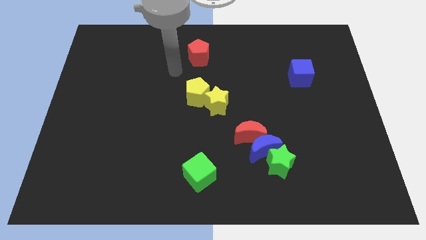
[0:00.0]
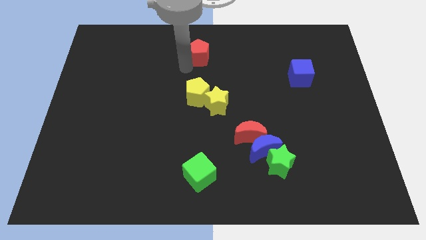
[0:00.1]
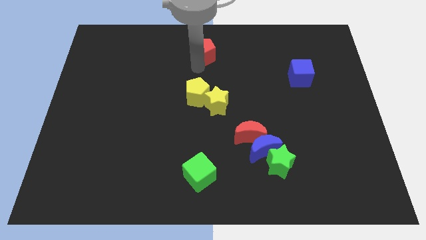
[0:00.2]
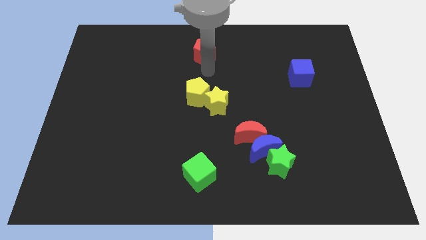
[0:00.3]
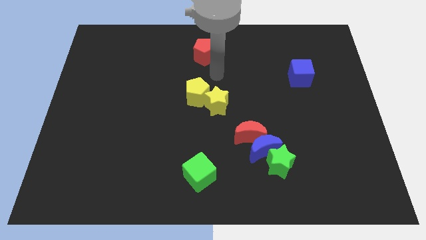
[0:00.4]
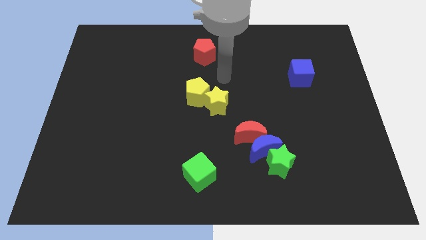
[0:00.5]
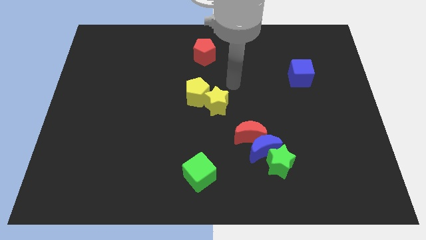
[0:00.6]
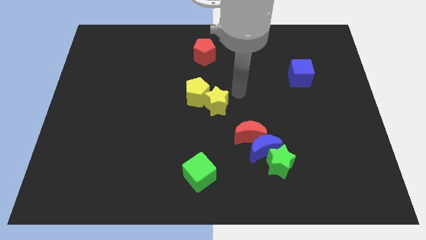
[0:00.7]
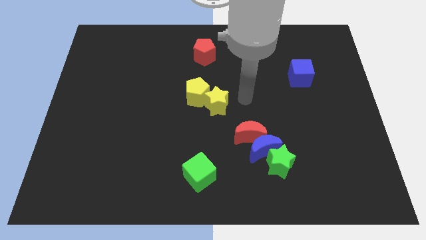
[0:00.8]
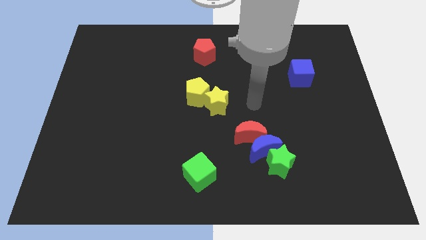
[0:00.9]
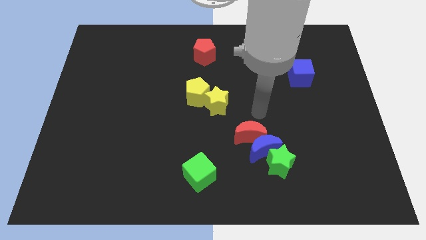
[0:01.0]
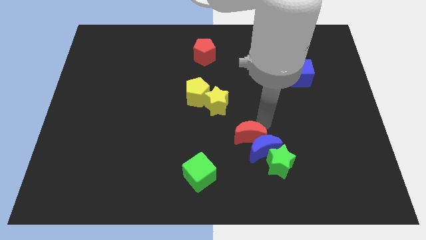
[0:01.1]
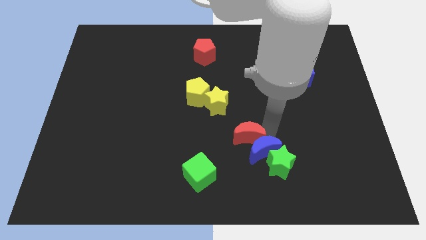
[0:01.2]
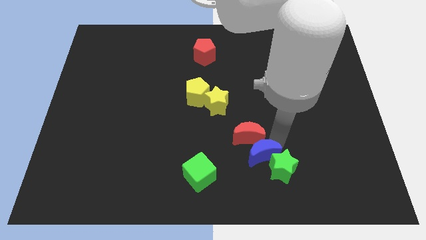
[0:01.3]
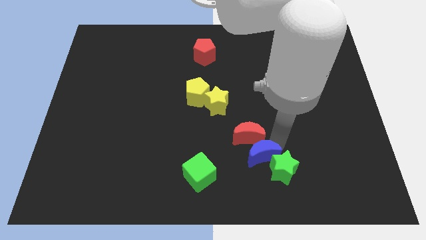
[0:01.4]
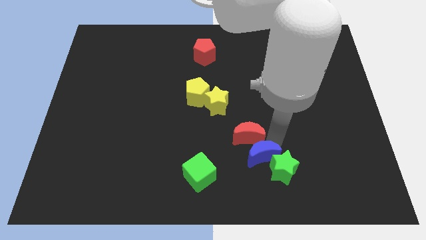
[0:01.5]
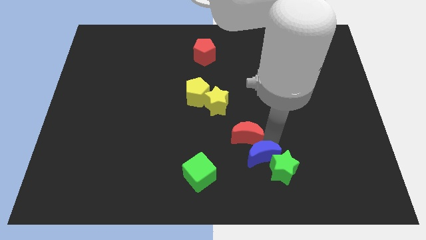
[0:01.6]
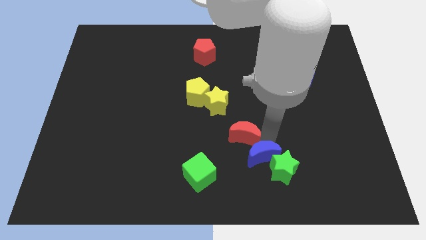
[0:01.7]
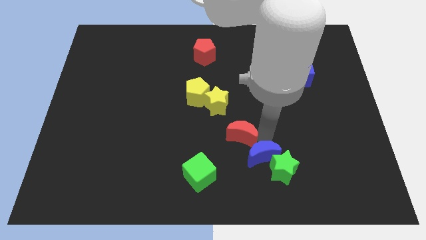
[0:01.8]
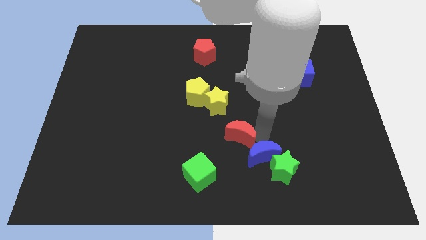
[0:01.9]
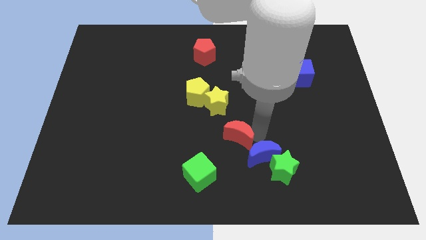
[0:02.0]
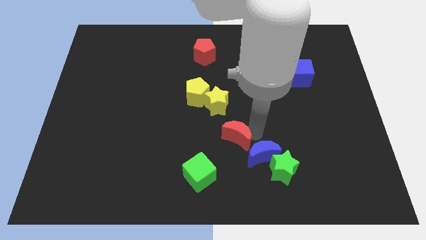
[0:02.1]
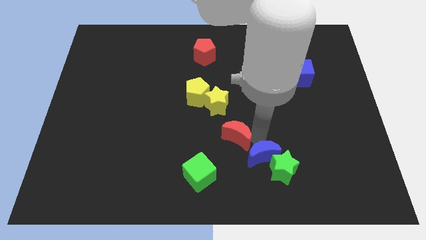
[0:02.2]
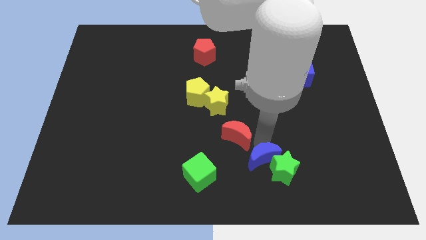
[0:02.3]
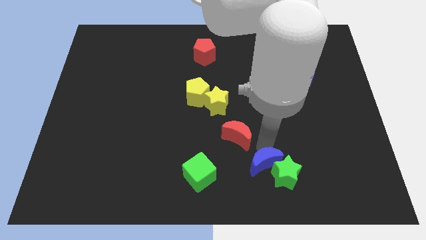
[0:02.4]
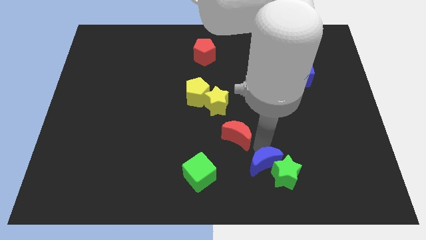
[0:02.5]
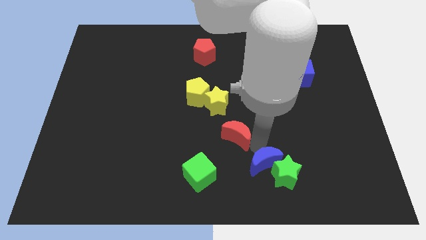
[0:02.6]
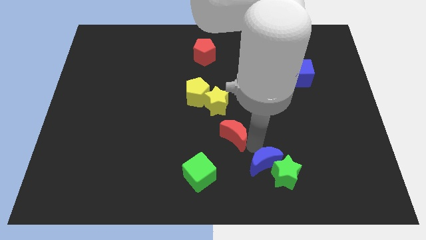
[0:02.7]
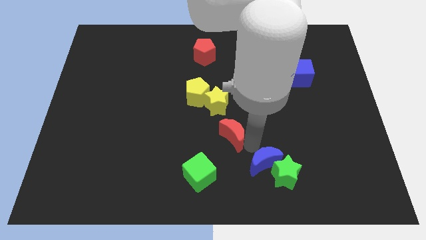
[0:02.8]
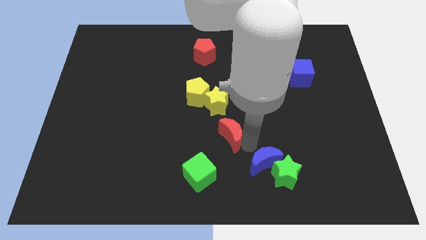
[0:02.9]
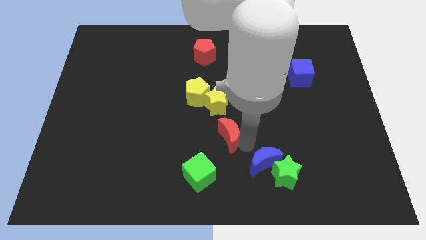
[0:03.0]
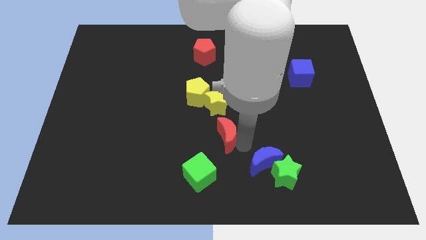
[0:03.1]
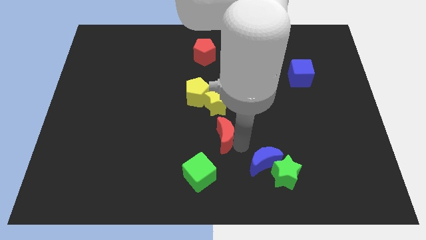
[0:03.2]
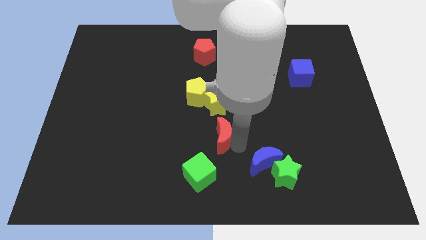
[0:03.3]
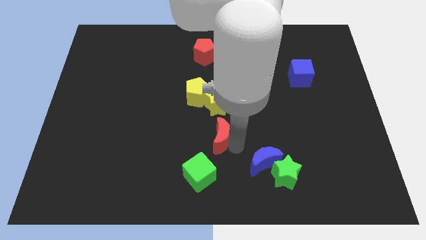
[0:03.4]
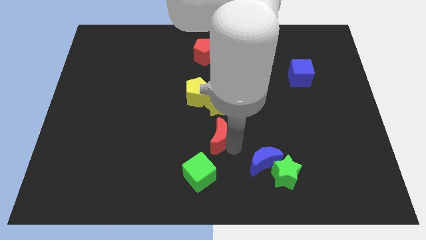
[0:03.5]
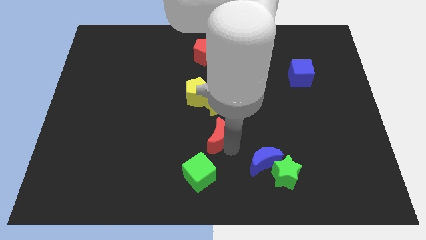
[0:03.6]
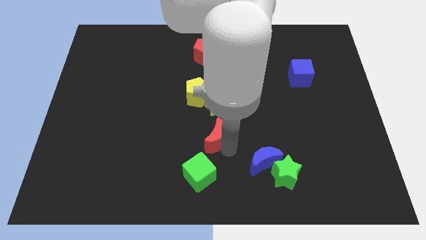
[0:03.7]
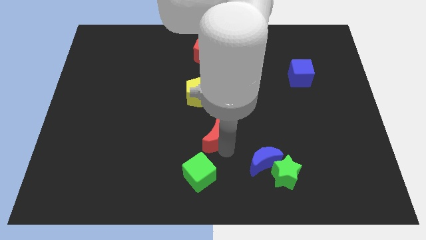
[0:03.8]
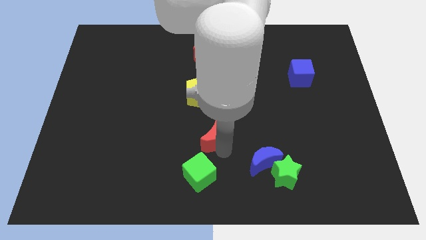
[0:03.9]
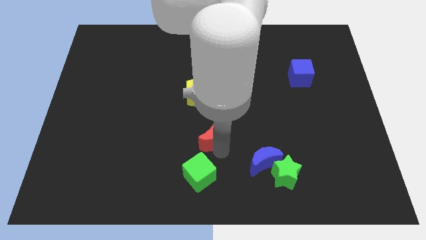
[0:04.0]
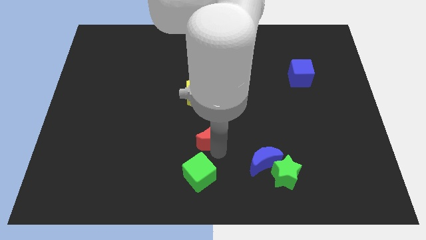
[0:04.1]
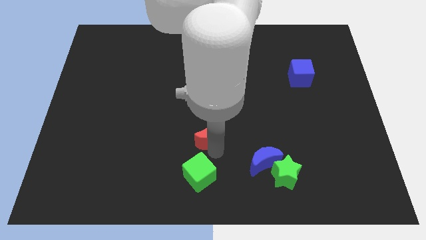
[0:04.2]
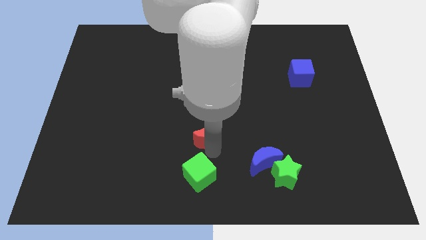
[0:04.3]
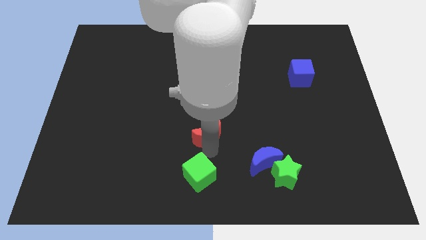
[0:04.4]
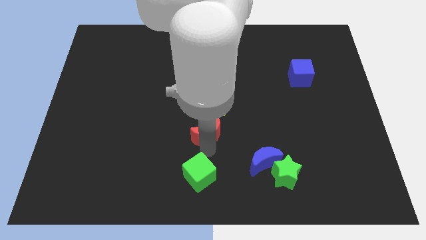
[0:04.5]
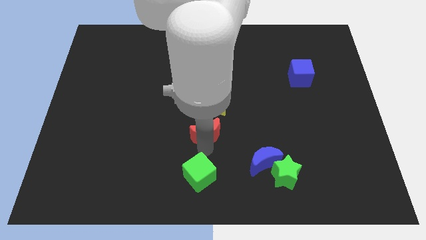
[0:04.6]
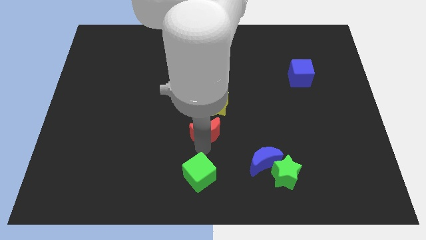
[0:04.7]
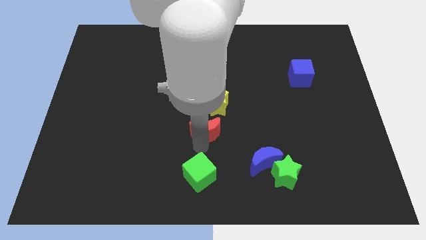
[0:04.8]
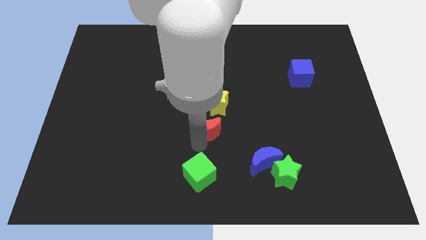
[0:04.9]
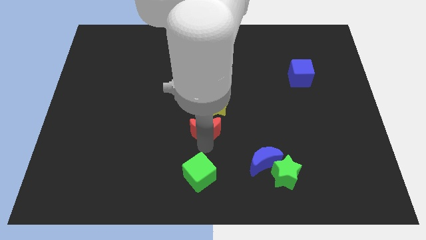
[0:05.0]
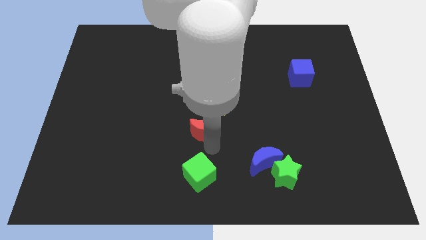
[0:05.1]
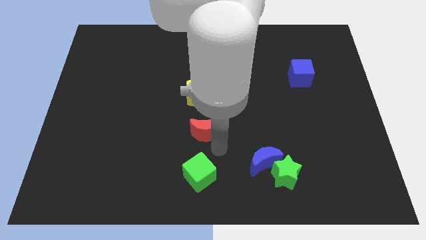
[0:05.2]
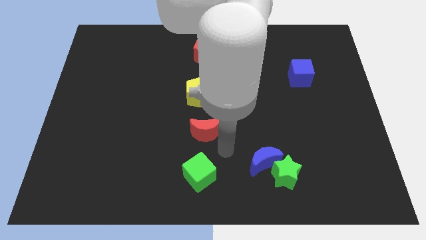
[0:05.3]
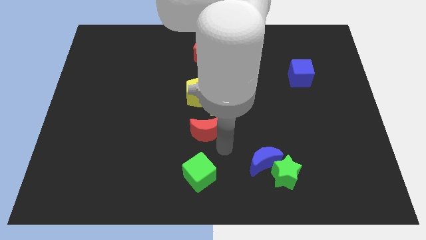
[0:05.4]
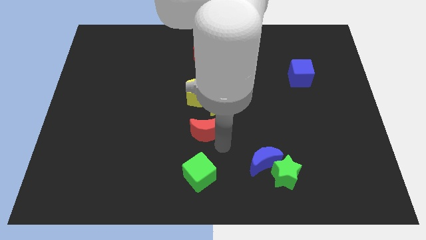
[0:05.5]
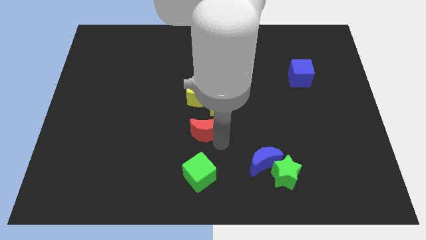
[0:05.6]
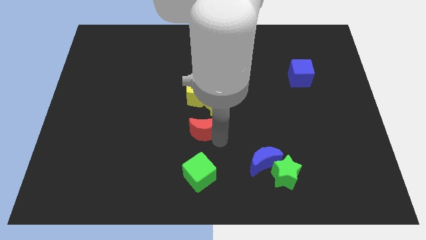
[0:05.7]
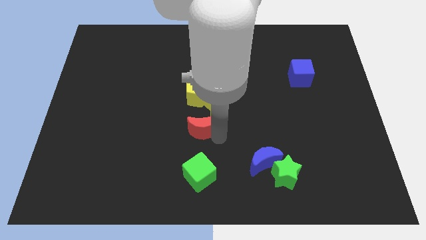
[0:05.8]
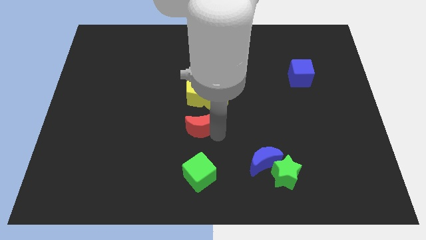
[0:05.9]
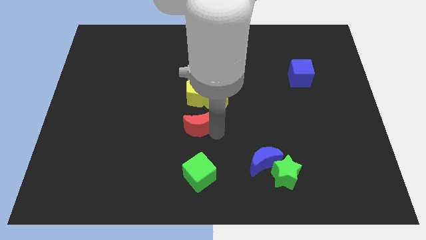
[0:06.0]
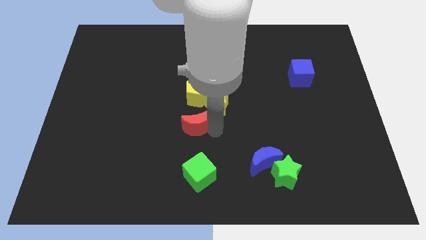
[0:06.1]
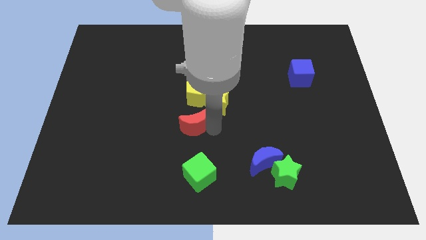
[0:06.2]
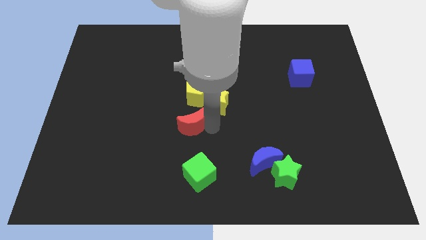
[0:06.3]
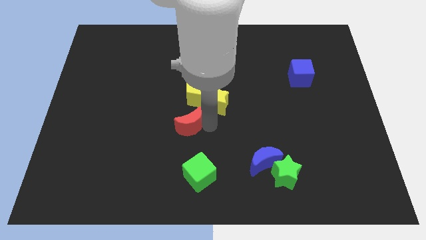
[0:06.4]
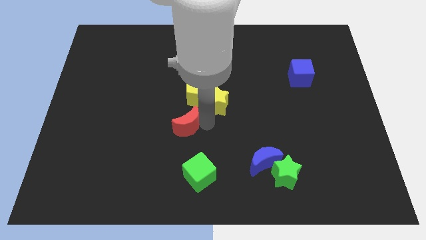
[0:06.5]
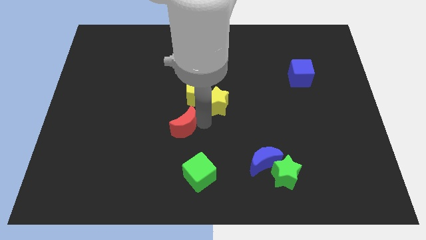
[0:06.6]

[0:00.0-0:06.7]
push the red moon diagonally down and to the left of the yellow pentagon

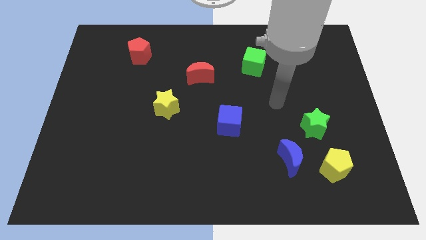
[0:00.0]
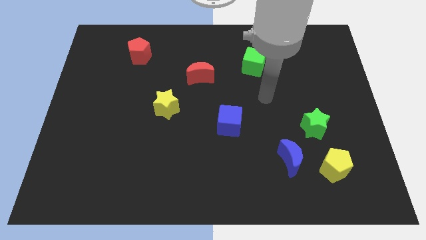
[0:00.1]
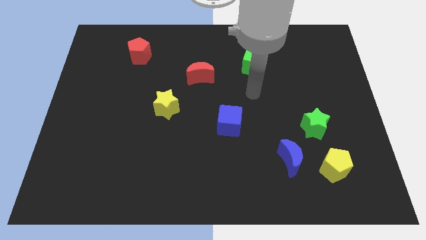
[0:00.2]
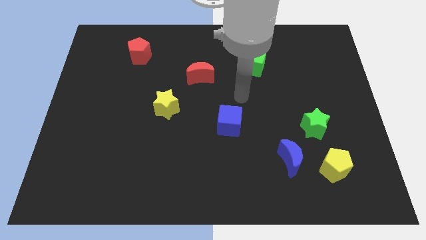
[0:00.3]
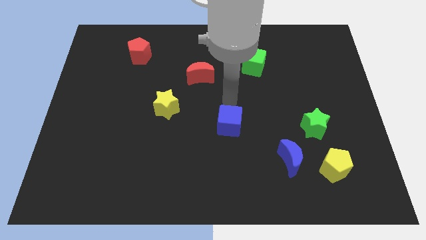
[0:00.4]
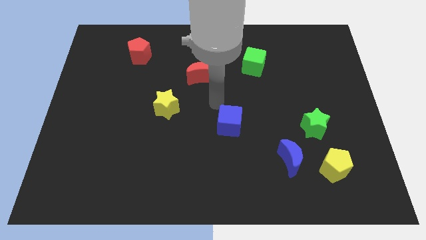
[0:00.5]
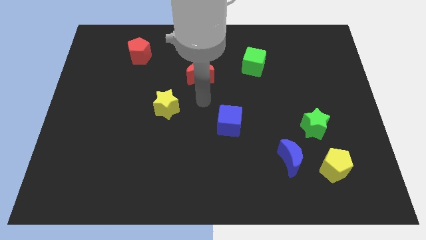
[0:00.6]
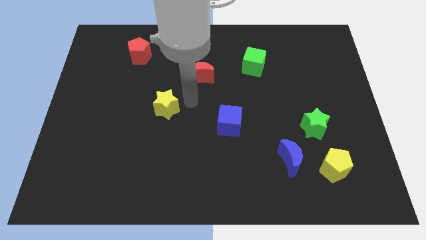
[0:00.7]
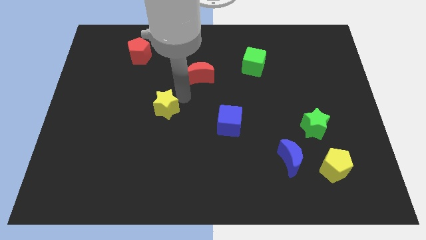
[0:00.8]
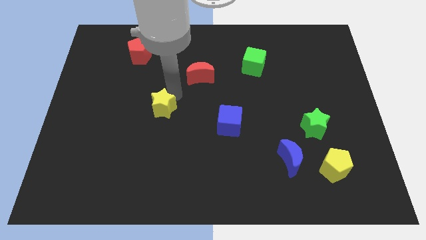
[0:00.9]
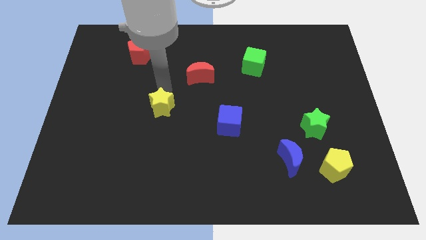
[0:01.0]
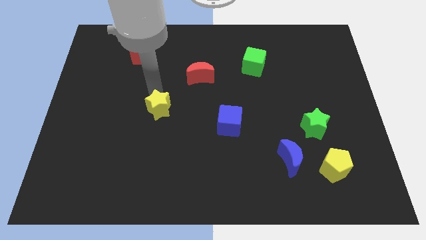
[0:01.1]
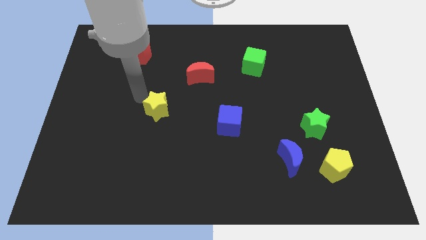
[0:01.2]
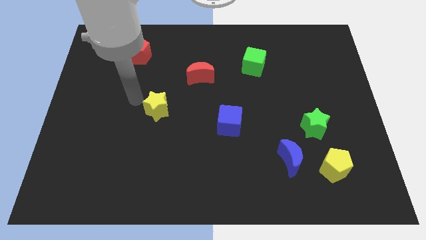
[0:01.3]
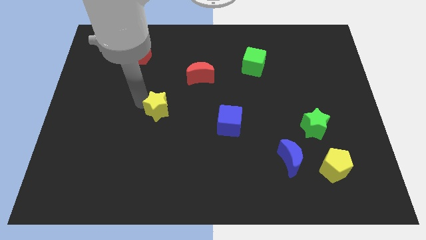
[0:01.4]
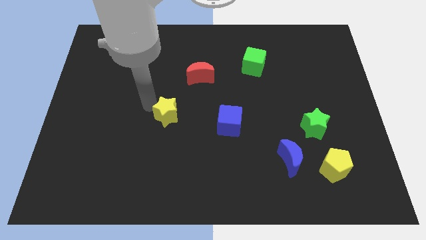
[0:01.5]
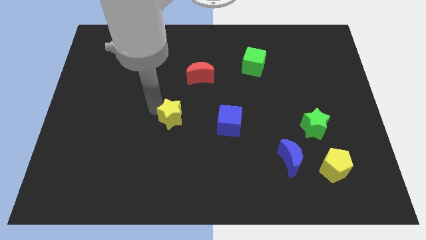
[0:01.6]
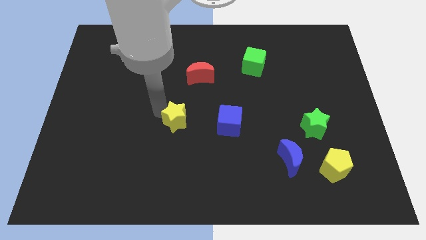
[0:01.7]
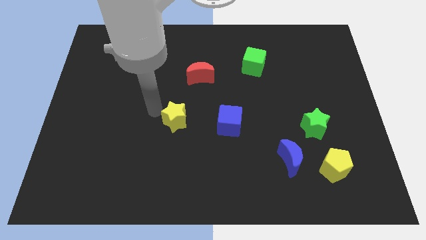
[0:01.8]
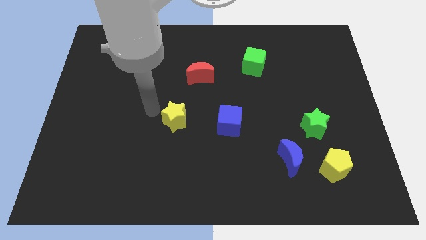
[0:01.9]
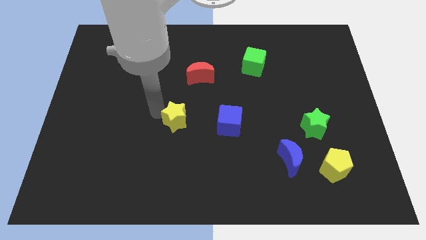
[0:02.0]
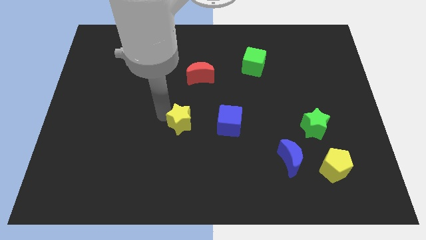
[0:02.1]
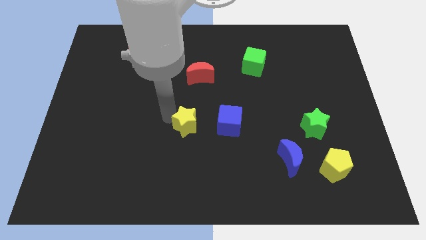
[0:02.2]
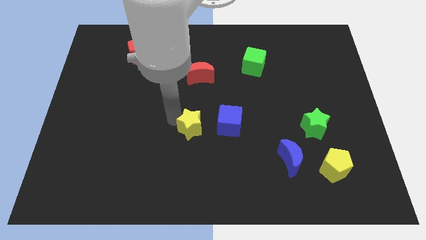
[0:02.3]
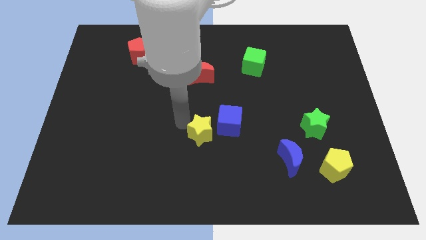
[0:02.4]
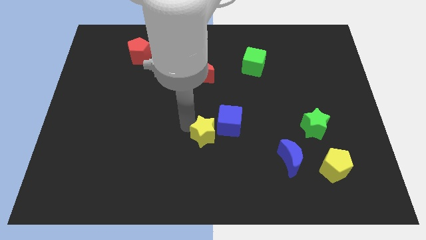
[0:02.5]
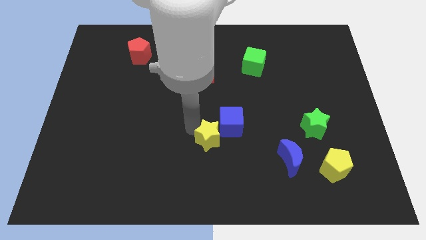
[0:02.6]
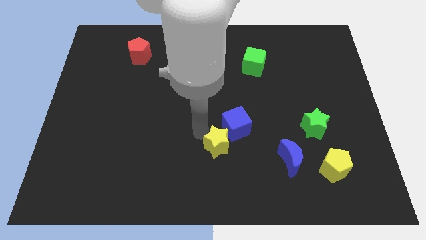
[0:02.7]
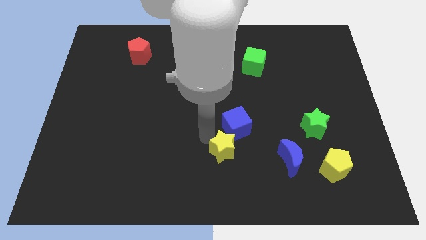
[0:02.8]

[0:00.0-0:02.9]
move the yellow star to the left side of the blue moon
